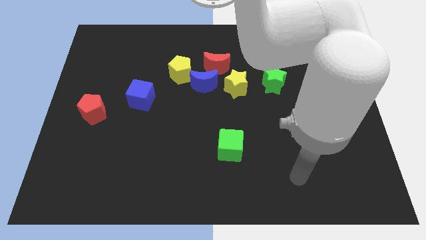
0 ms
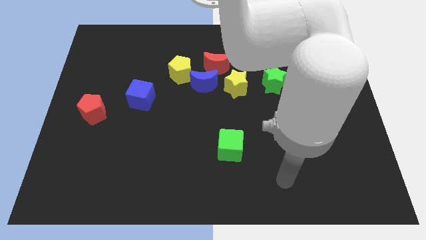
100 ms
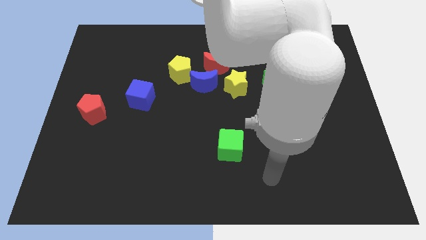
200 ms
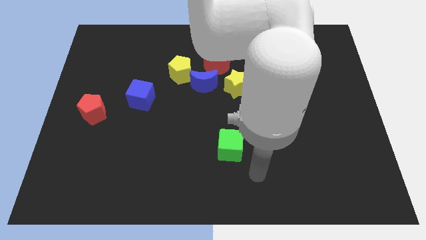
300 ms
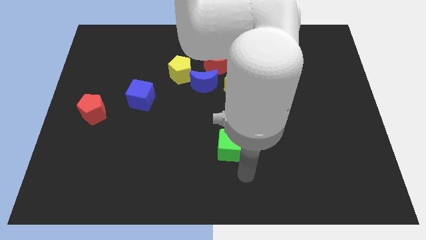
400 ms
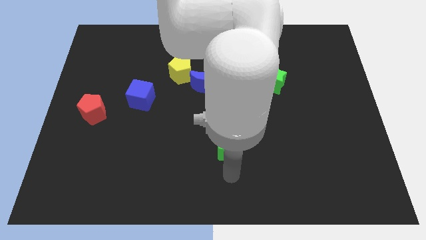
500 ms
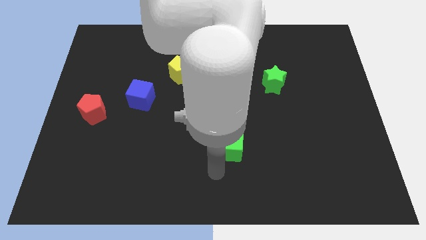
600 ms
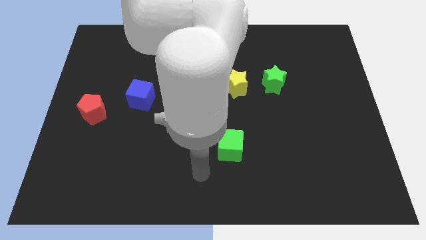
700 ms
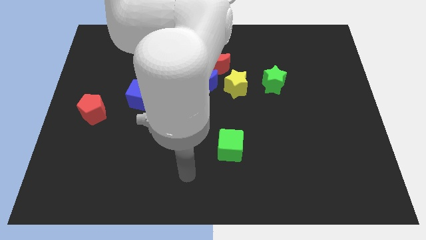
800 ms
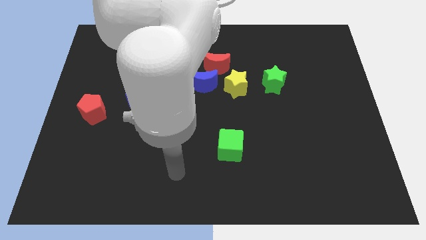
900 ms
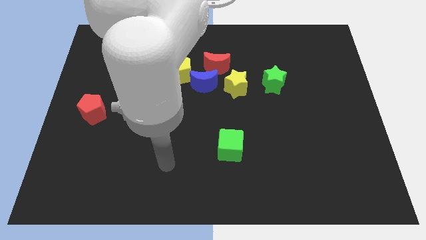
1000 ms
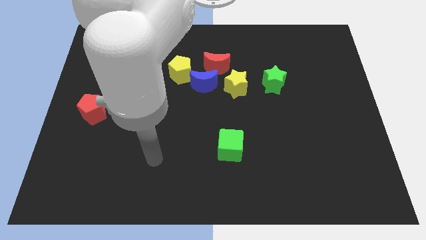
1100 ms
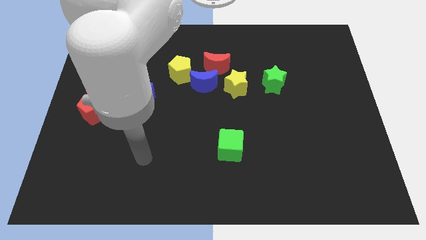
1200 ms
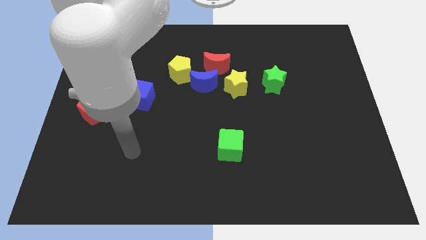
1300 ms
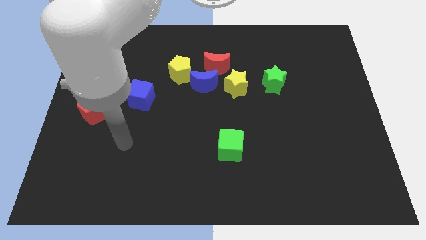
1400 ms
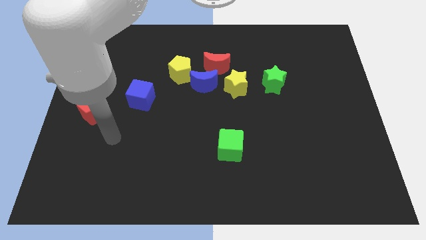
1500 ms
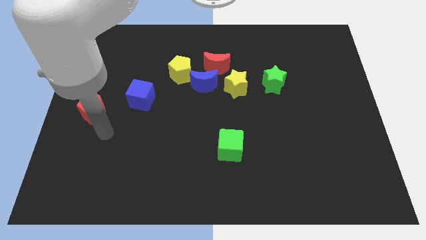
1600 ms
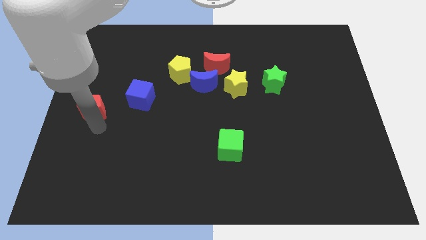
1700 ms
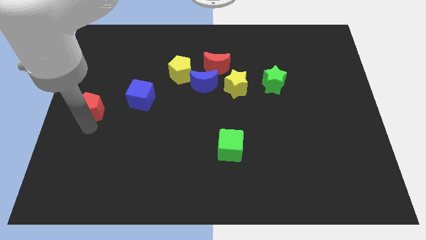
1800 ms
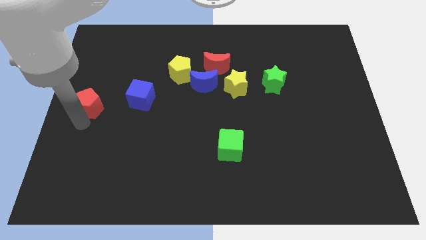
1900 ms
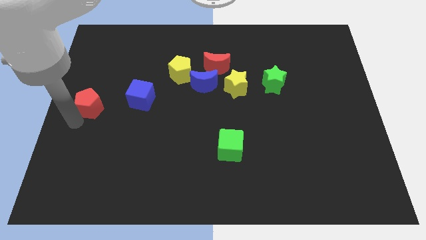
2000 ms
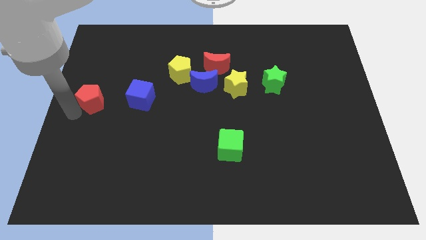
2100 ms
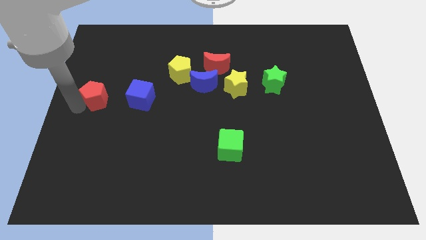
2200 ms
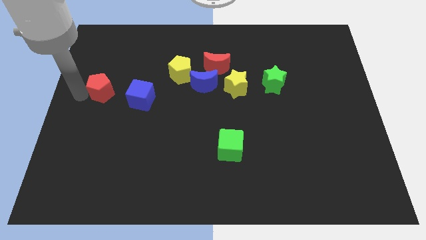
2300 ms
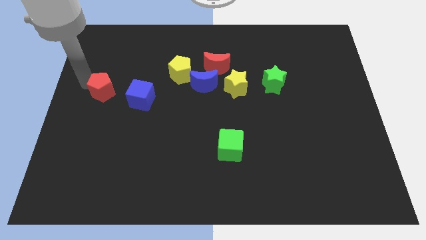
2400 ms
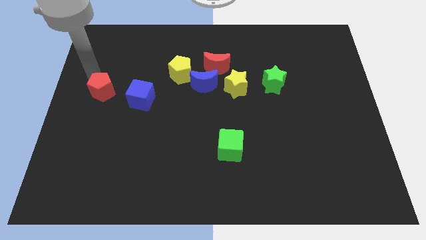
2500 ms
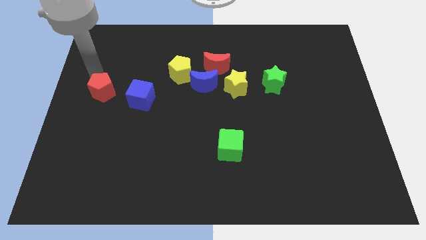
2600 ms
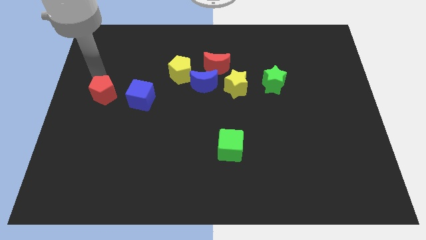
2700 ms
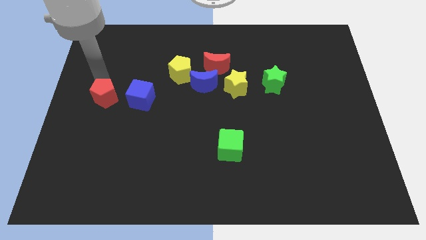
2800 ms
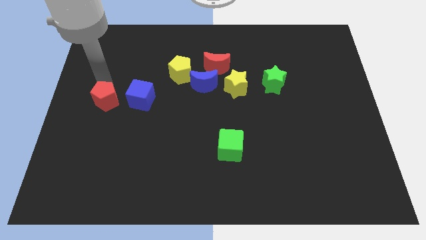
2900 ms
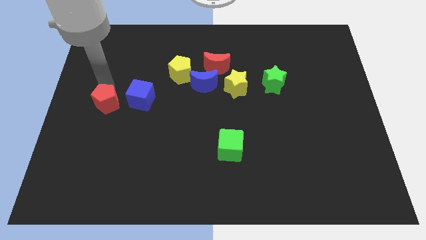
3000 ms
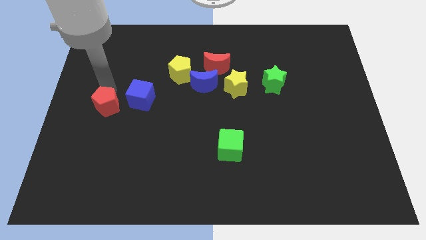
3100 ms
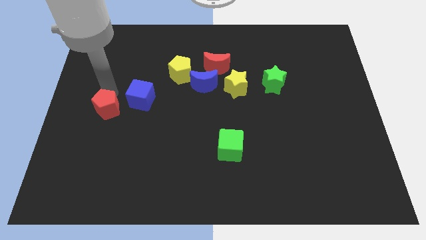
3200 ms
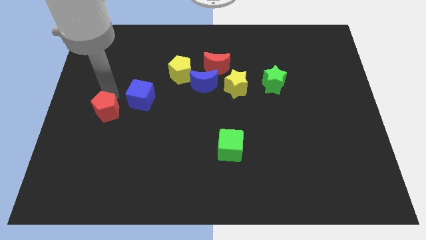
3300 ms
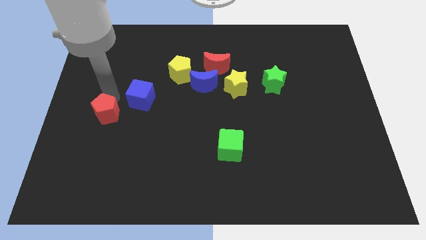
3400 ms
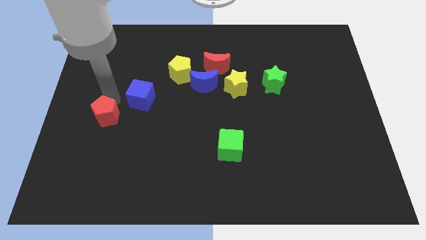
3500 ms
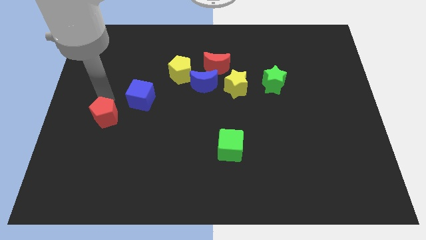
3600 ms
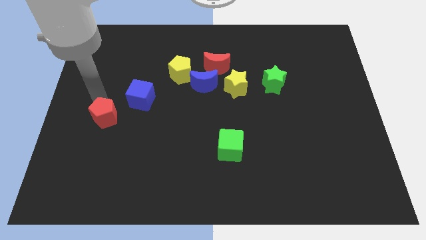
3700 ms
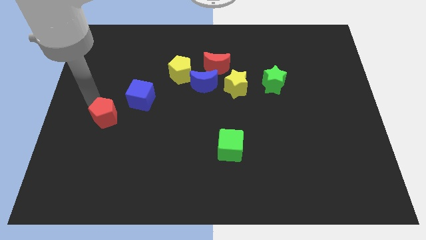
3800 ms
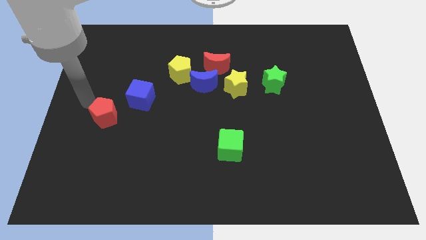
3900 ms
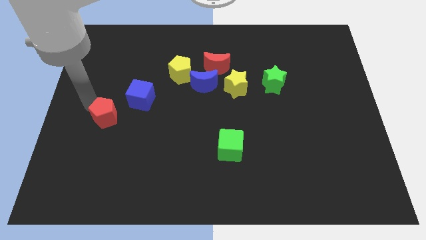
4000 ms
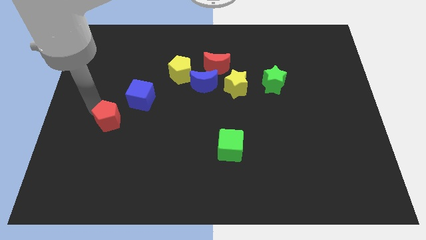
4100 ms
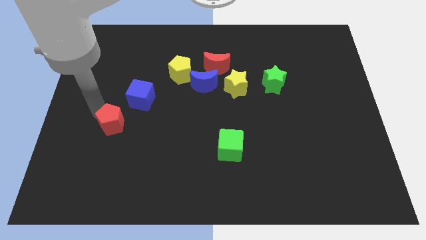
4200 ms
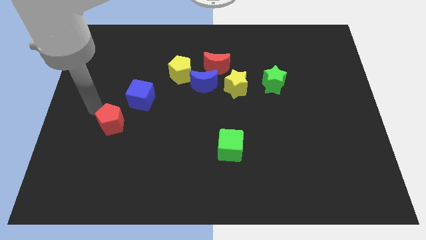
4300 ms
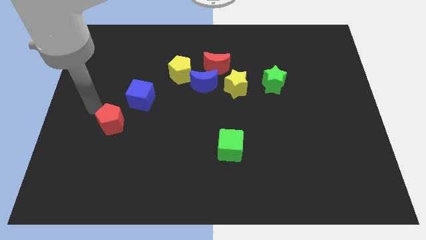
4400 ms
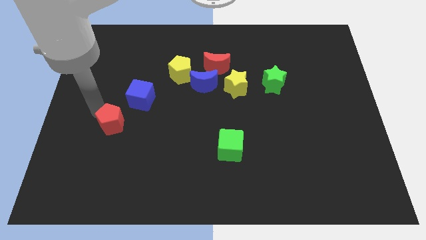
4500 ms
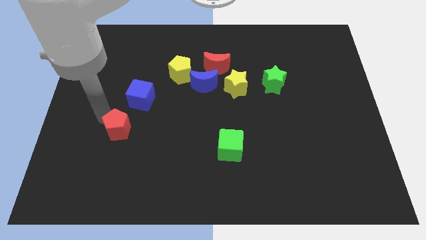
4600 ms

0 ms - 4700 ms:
slightly push the red pentagon diagonally downwards and right

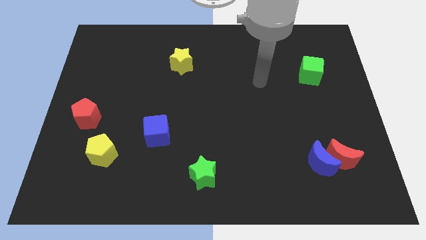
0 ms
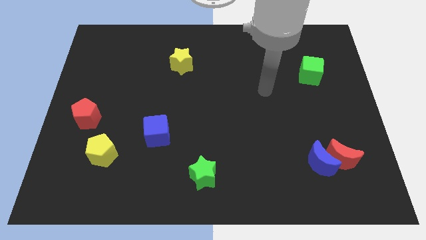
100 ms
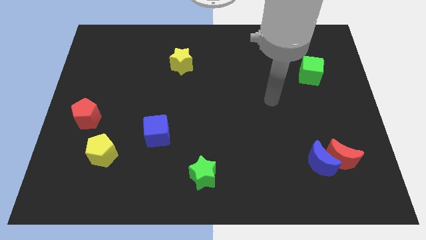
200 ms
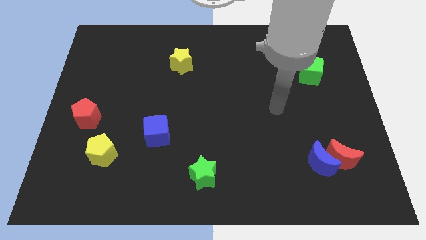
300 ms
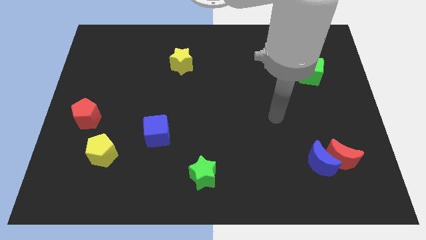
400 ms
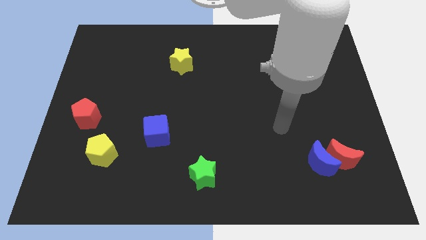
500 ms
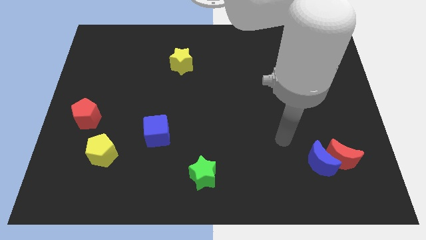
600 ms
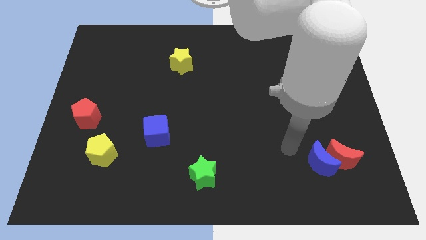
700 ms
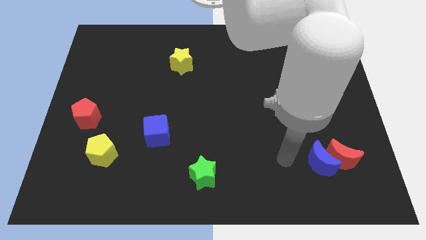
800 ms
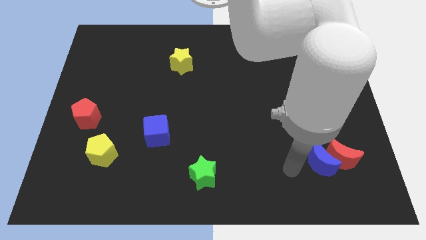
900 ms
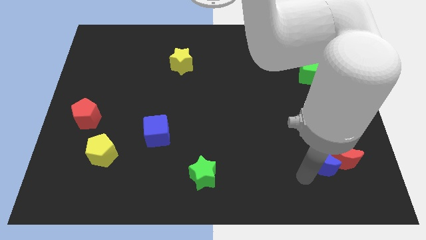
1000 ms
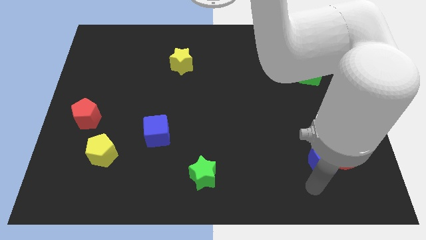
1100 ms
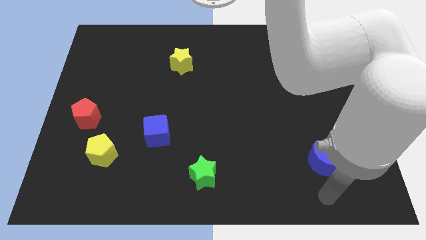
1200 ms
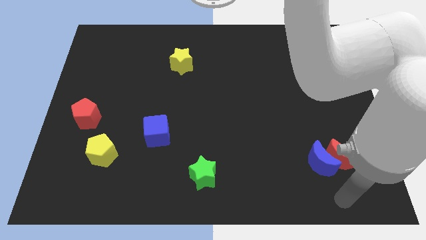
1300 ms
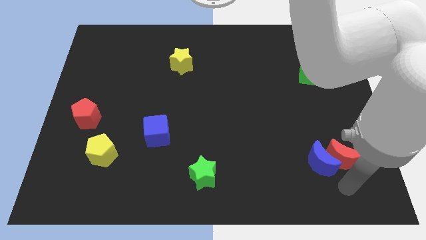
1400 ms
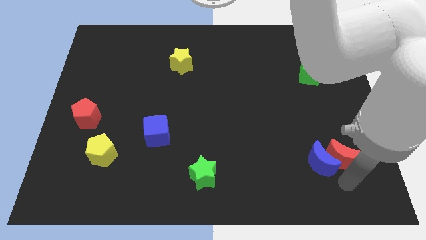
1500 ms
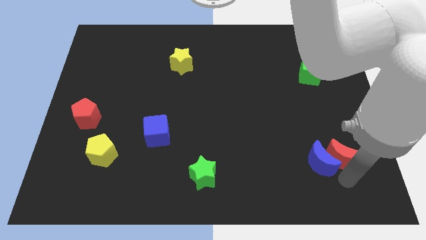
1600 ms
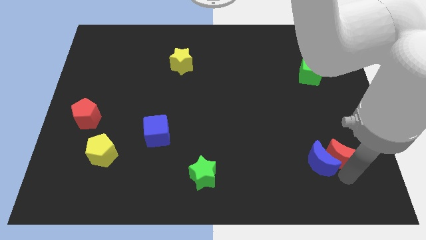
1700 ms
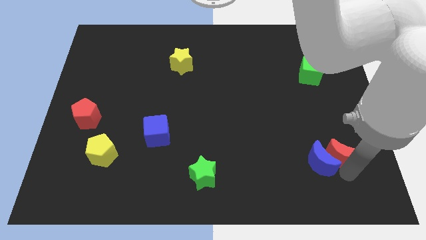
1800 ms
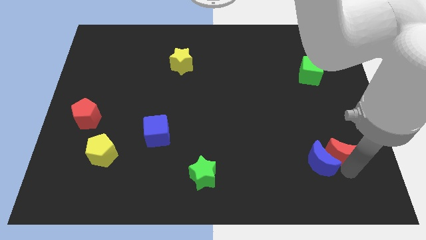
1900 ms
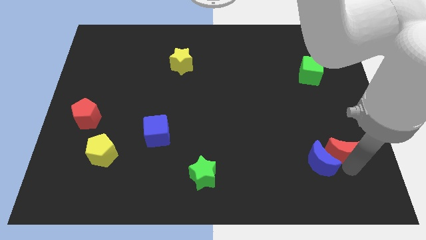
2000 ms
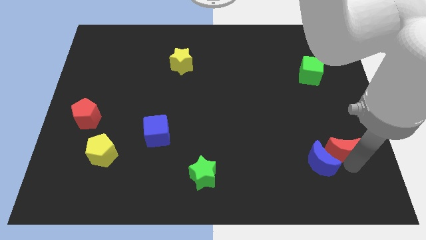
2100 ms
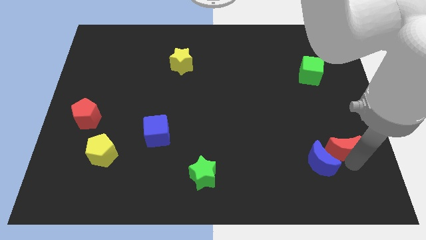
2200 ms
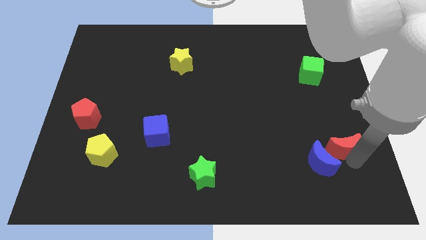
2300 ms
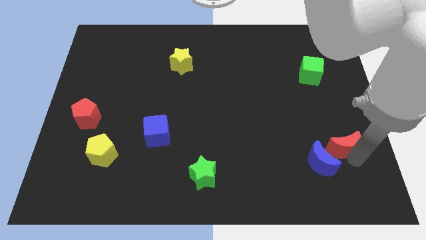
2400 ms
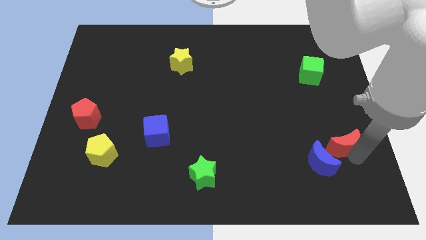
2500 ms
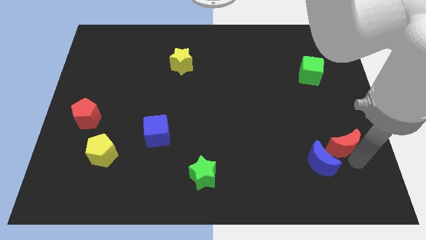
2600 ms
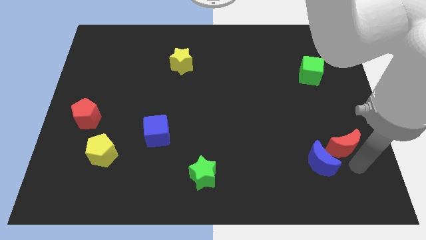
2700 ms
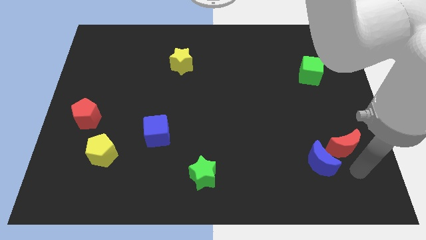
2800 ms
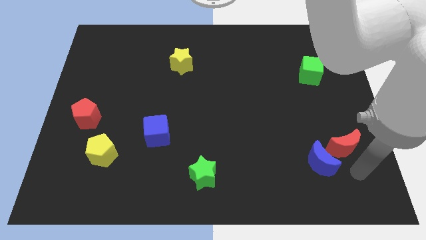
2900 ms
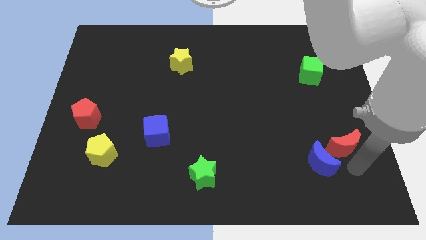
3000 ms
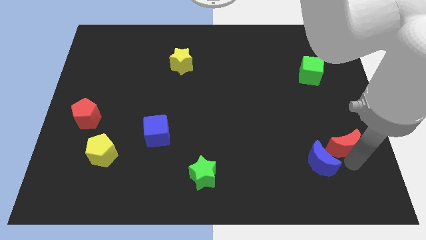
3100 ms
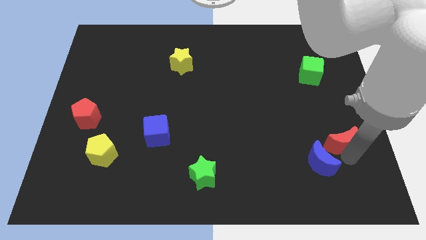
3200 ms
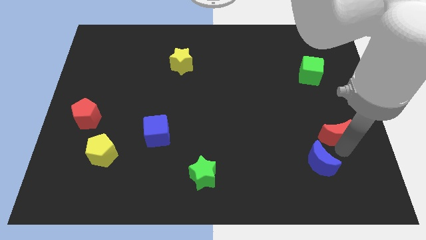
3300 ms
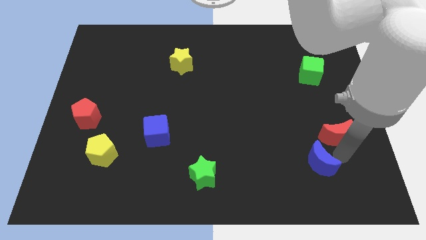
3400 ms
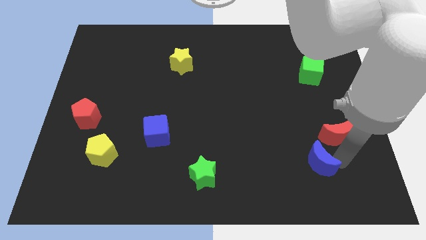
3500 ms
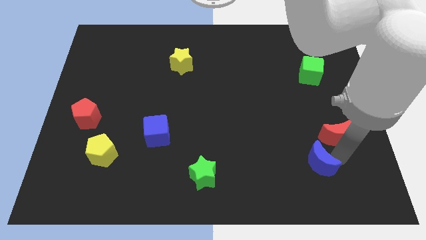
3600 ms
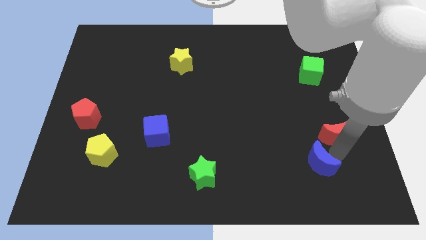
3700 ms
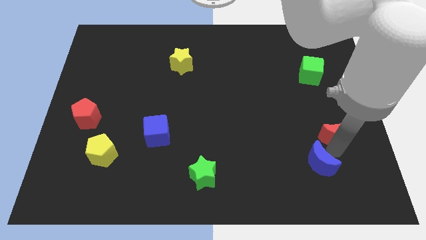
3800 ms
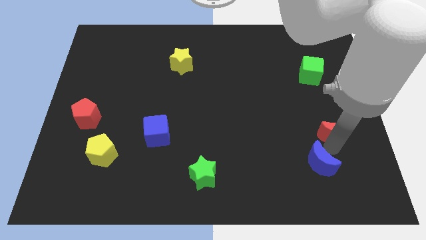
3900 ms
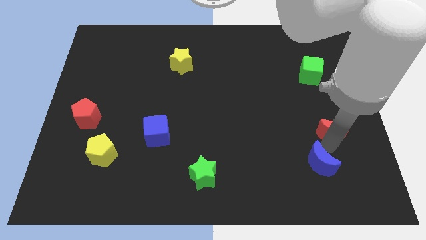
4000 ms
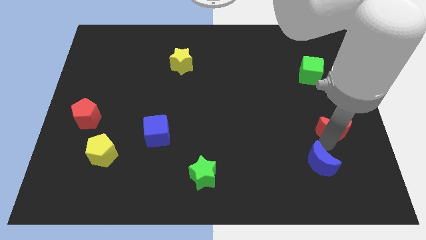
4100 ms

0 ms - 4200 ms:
move the red moon upwards somewhat
